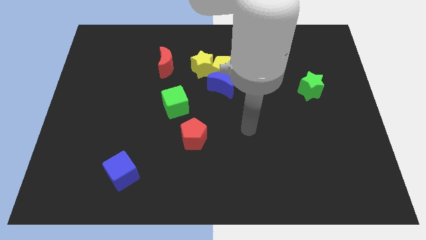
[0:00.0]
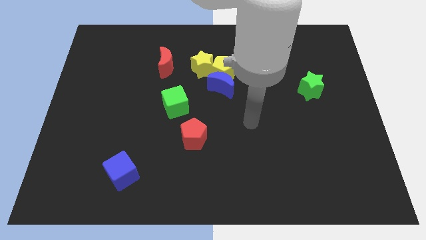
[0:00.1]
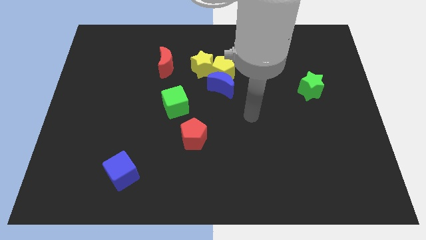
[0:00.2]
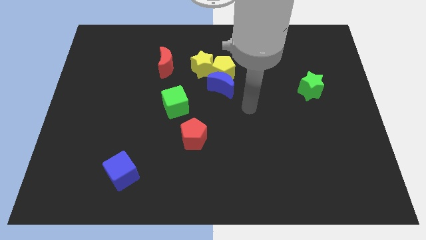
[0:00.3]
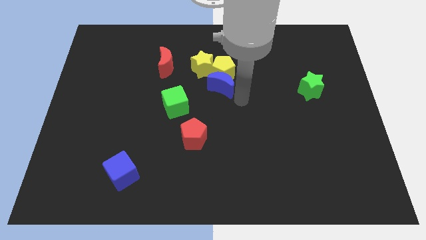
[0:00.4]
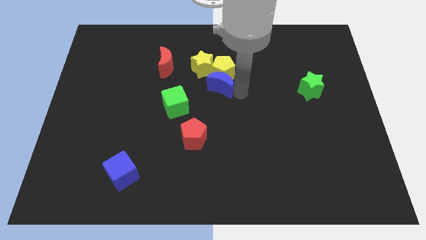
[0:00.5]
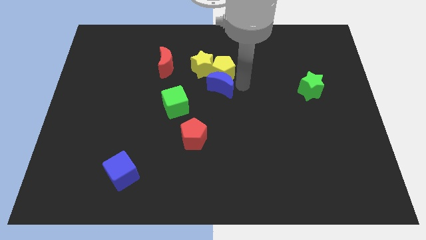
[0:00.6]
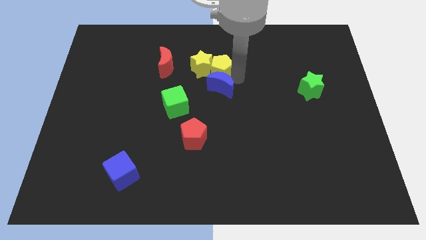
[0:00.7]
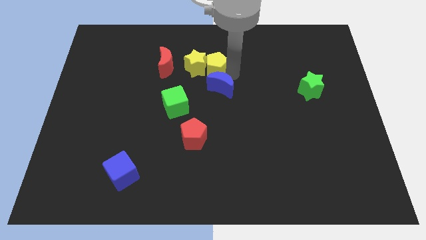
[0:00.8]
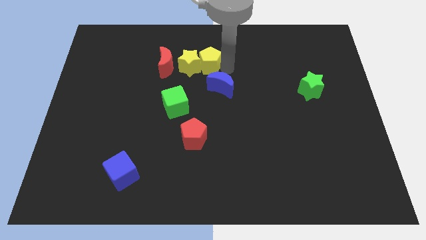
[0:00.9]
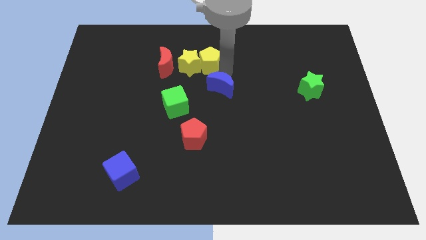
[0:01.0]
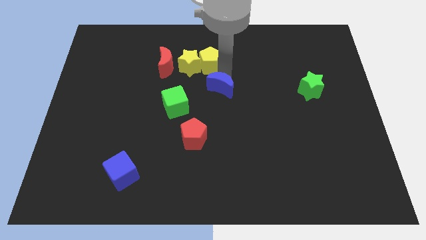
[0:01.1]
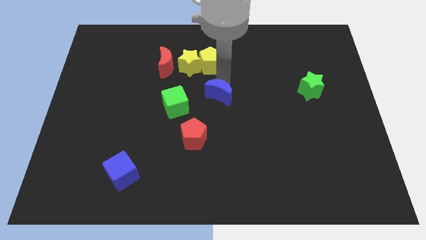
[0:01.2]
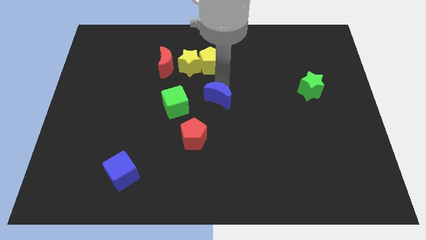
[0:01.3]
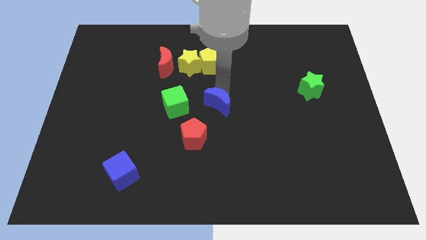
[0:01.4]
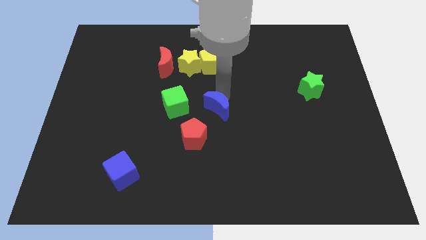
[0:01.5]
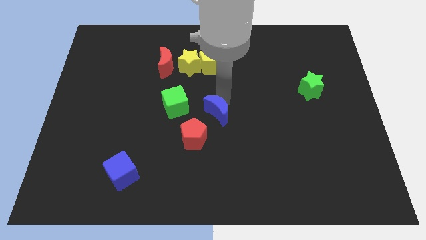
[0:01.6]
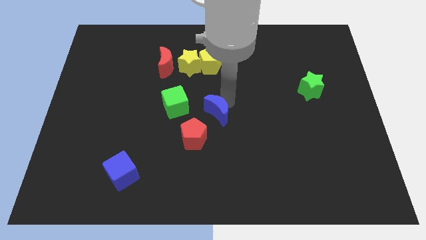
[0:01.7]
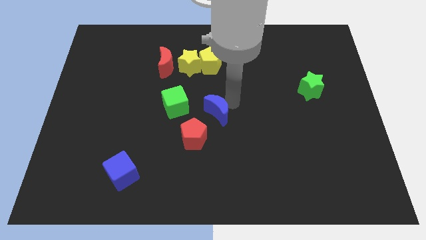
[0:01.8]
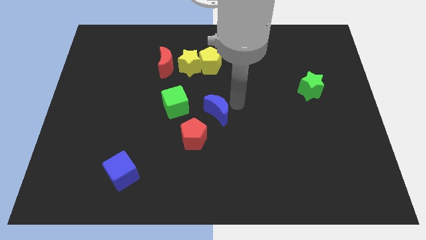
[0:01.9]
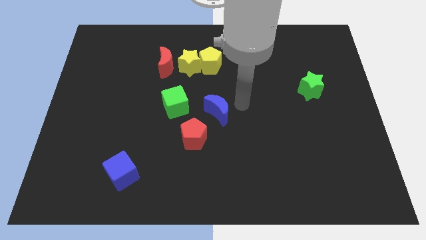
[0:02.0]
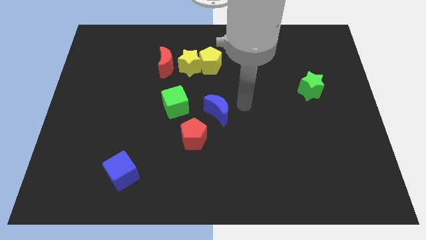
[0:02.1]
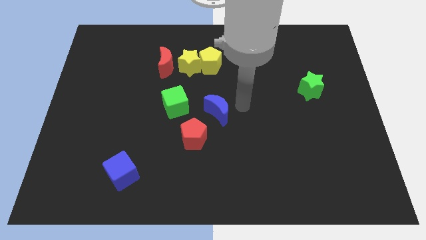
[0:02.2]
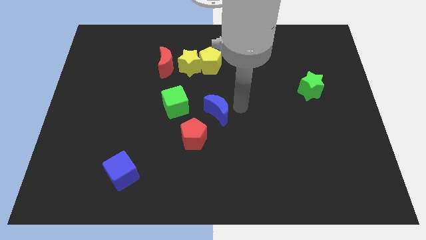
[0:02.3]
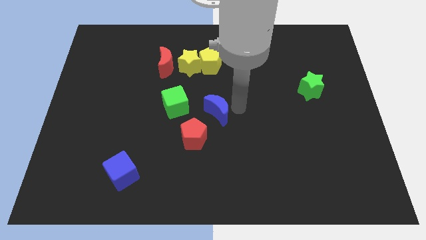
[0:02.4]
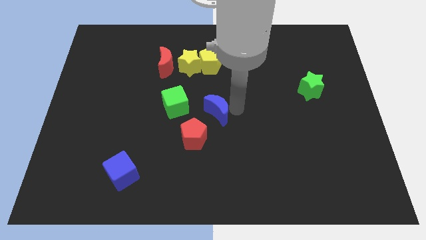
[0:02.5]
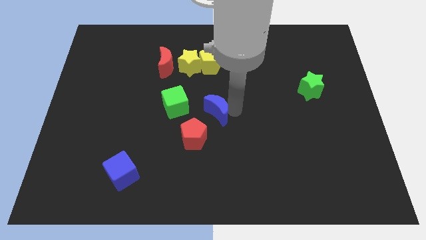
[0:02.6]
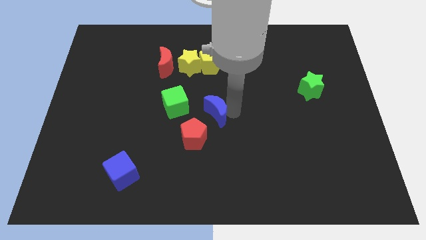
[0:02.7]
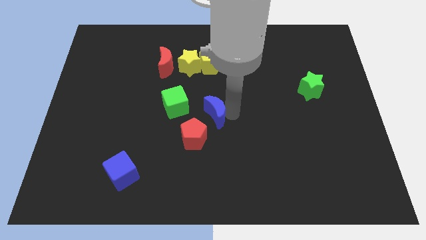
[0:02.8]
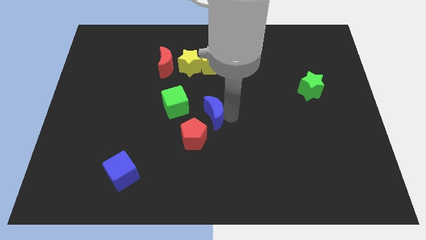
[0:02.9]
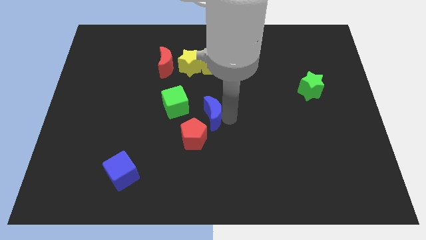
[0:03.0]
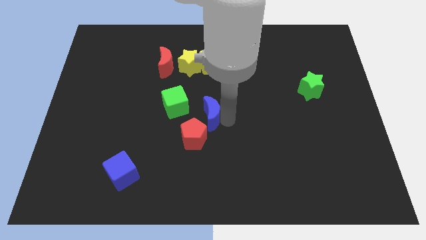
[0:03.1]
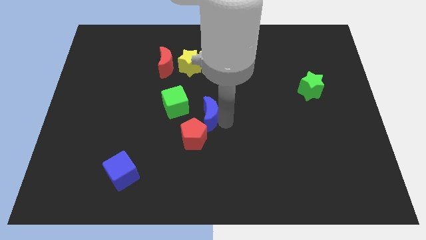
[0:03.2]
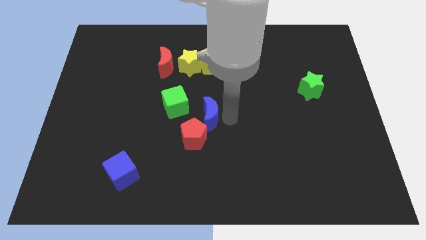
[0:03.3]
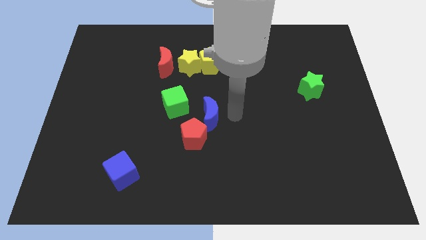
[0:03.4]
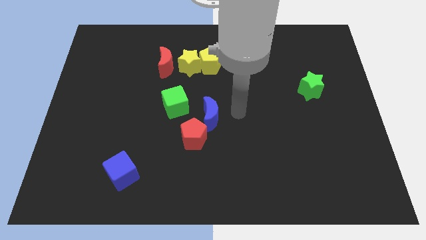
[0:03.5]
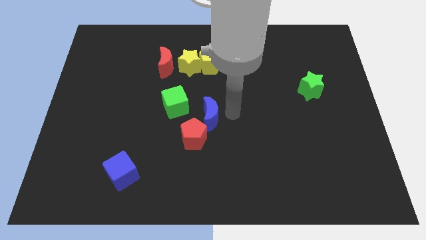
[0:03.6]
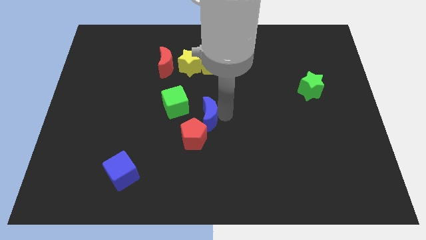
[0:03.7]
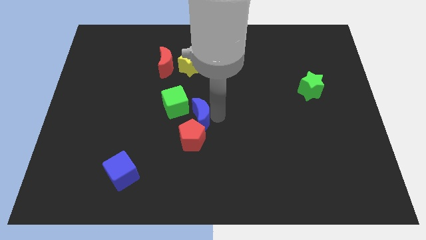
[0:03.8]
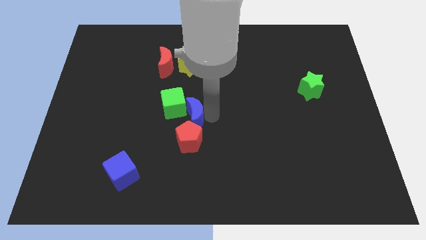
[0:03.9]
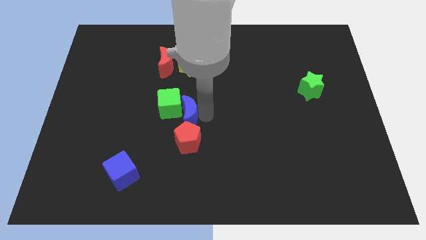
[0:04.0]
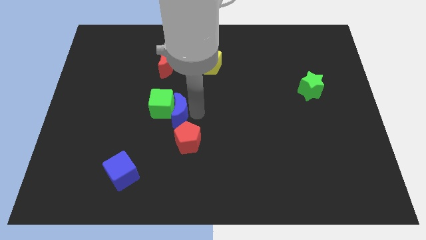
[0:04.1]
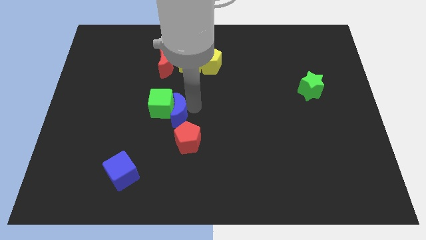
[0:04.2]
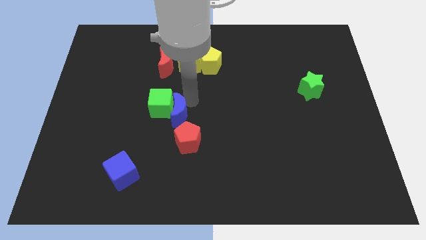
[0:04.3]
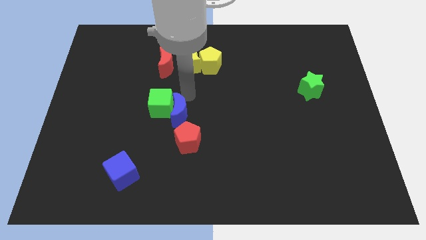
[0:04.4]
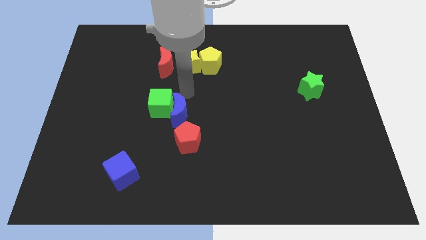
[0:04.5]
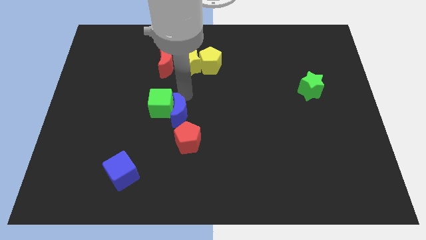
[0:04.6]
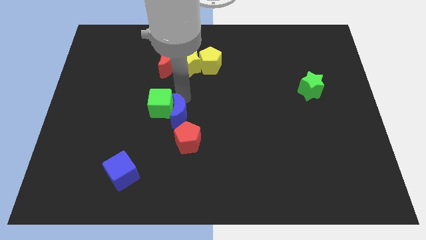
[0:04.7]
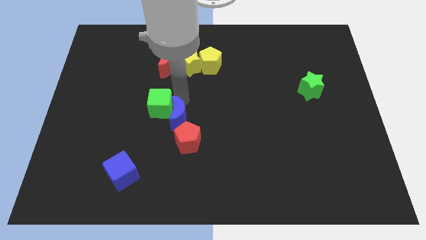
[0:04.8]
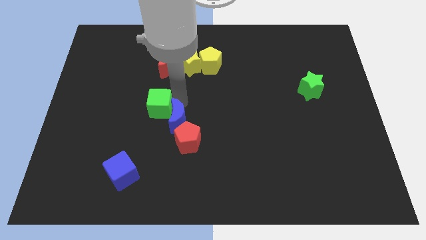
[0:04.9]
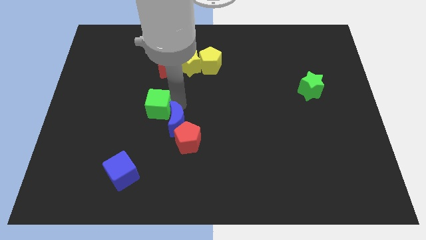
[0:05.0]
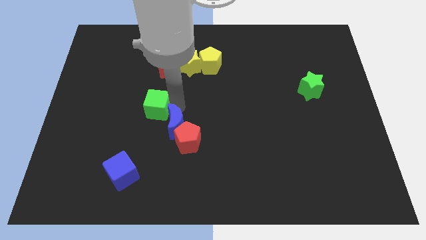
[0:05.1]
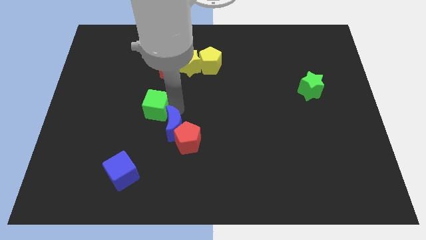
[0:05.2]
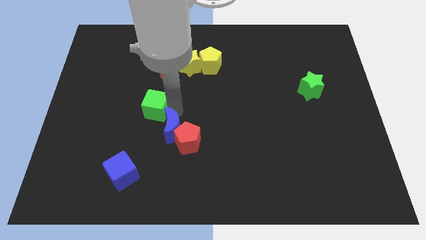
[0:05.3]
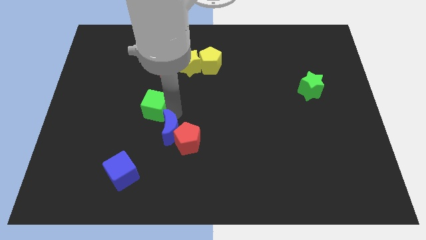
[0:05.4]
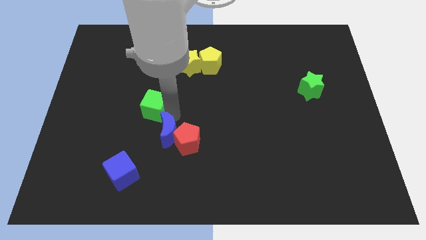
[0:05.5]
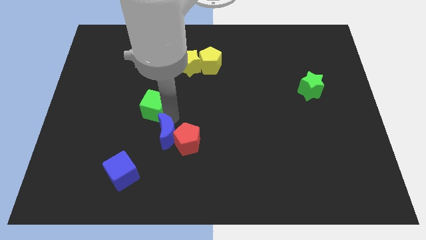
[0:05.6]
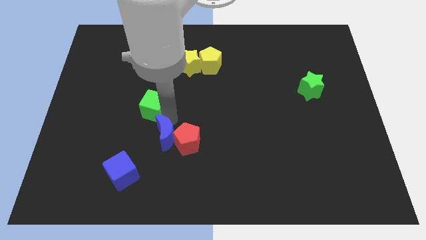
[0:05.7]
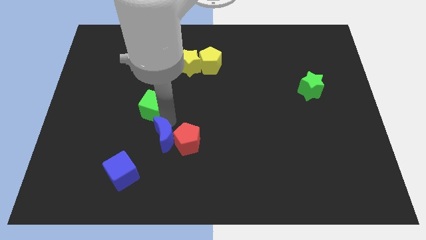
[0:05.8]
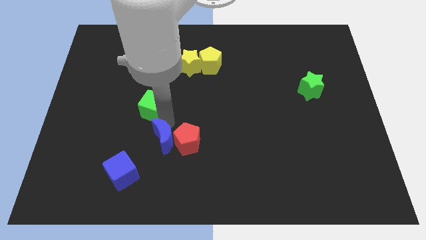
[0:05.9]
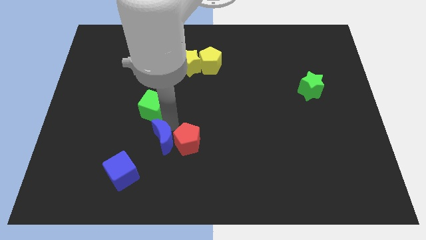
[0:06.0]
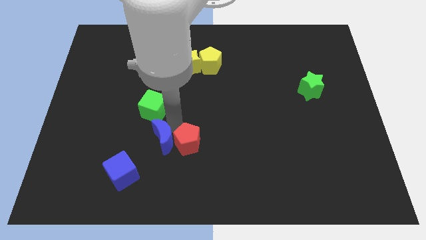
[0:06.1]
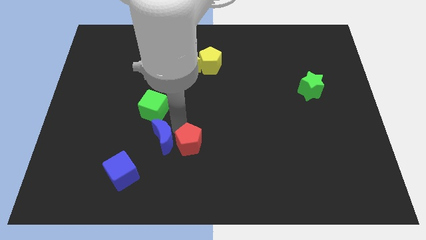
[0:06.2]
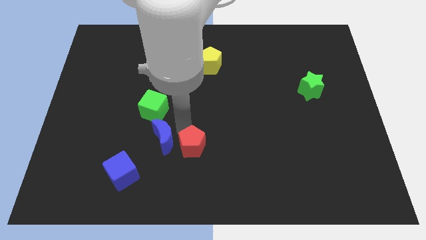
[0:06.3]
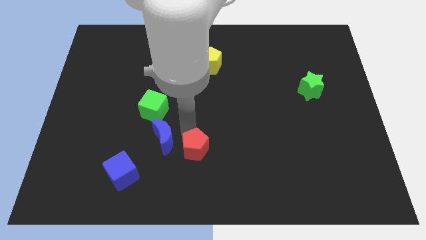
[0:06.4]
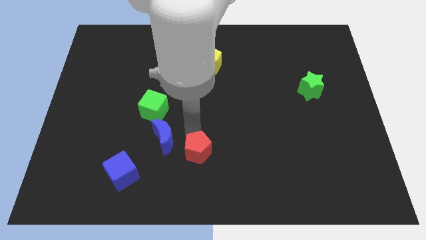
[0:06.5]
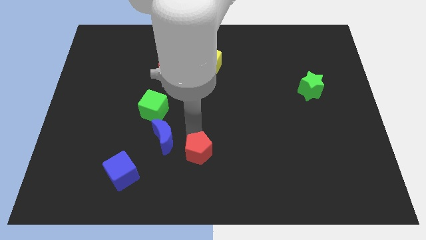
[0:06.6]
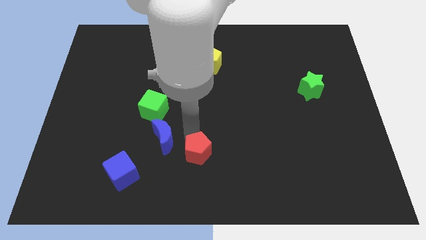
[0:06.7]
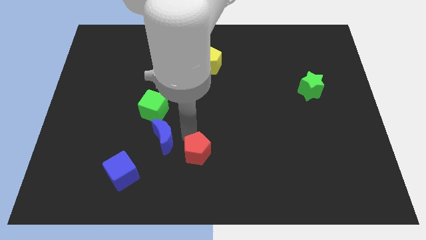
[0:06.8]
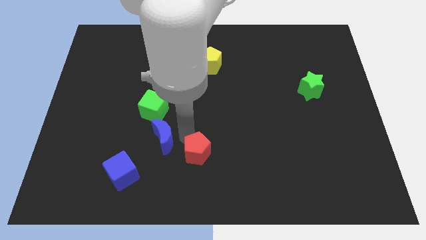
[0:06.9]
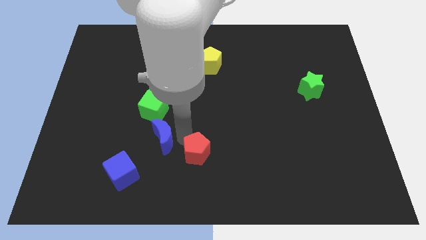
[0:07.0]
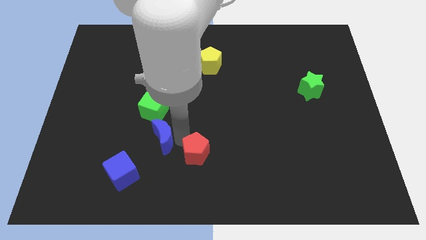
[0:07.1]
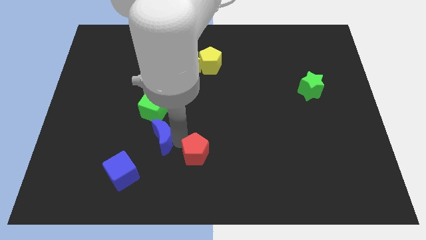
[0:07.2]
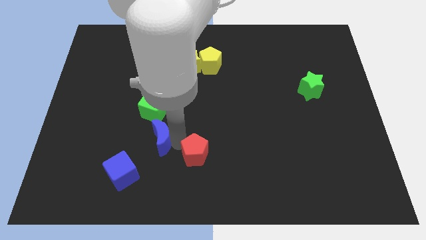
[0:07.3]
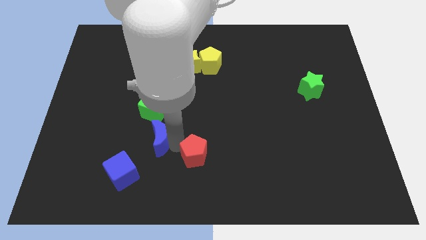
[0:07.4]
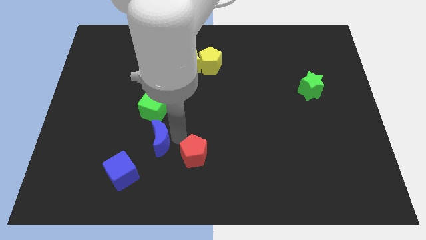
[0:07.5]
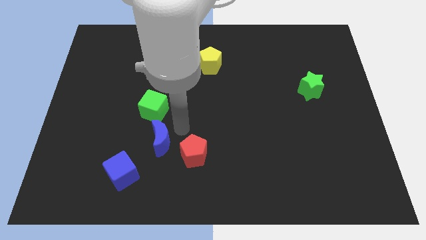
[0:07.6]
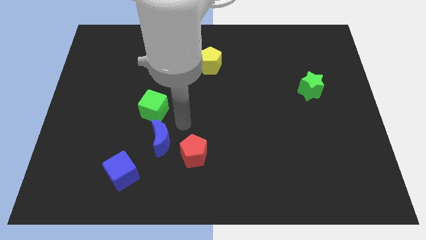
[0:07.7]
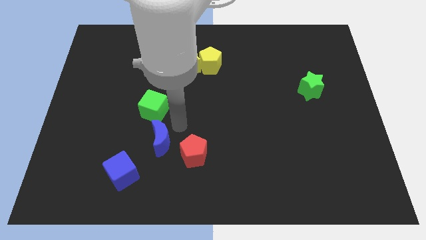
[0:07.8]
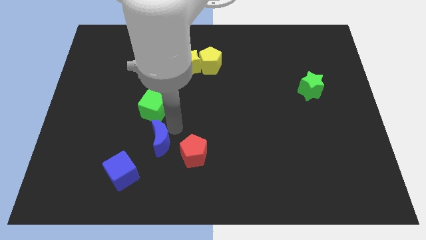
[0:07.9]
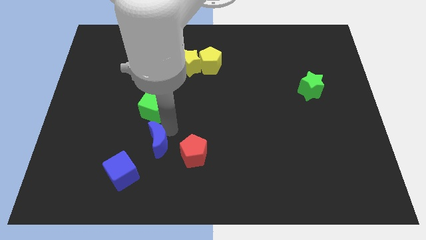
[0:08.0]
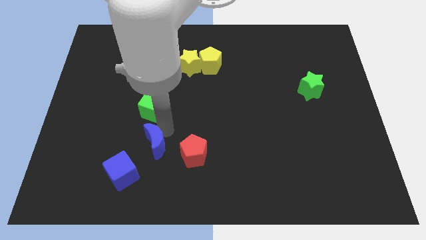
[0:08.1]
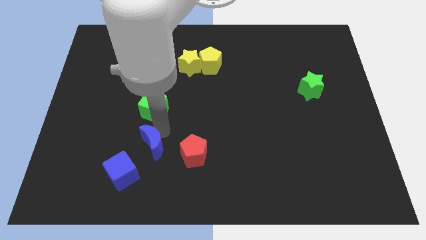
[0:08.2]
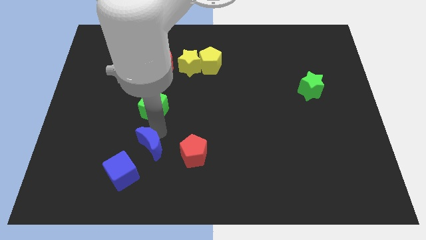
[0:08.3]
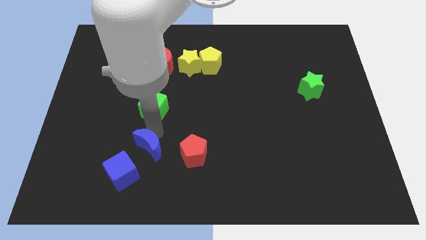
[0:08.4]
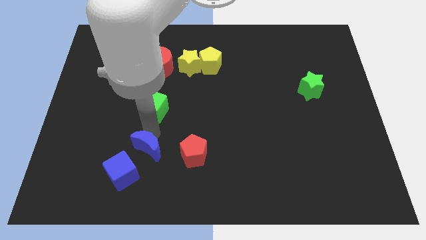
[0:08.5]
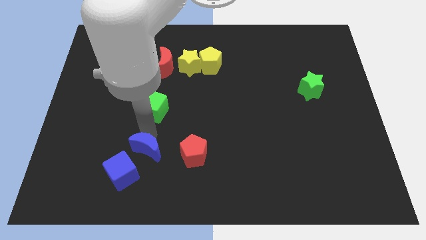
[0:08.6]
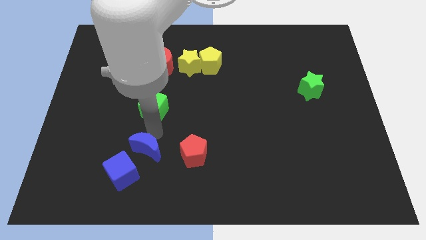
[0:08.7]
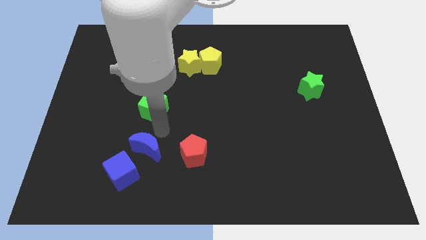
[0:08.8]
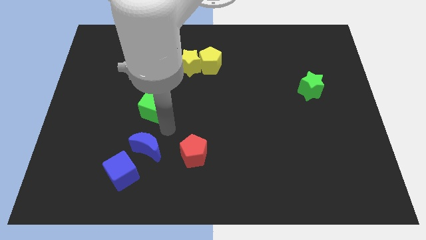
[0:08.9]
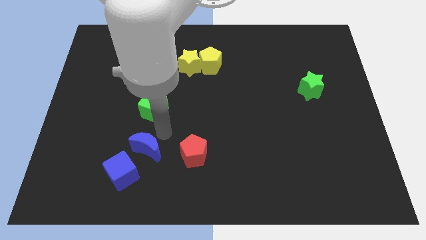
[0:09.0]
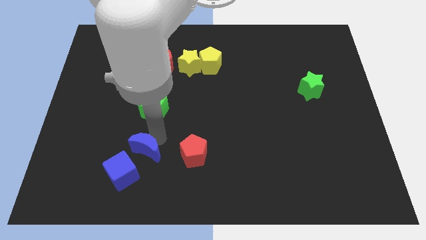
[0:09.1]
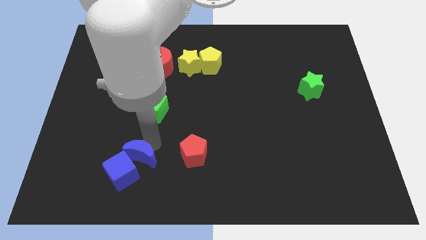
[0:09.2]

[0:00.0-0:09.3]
put the blue moon next to the blue cube
